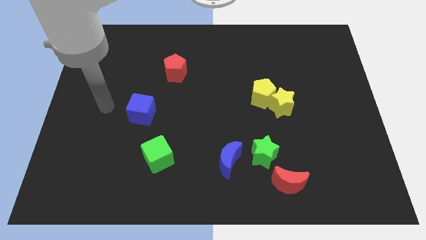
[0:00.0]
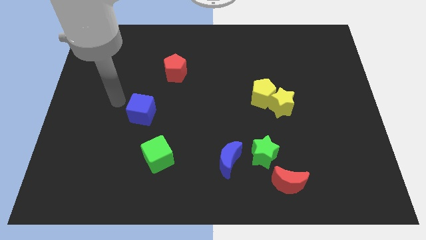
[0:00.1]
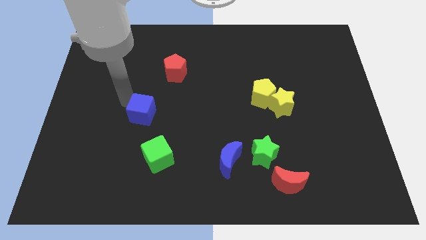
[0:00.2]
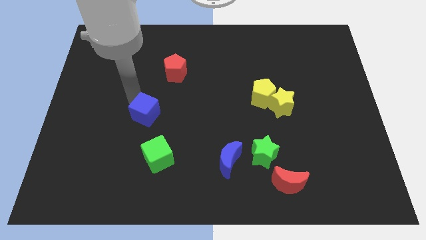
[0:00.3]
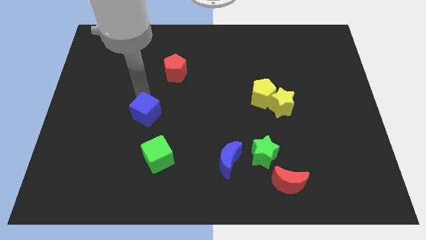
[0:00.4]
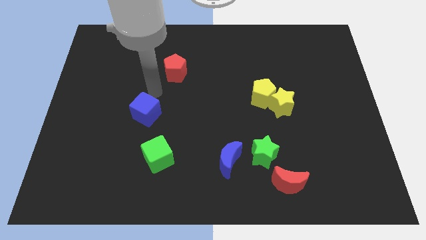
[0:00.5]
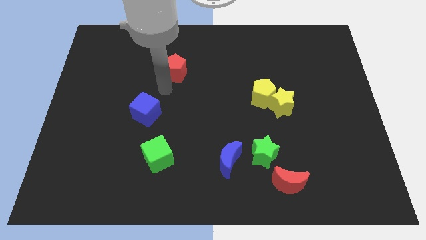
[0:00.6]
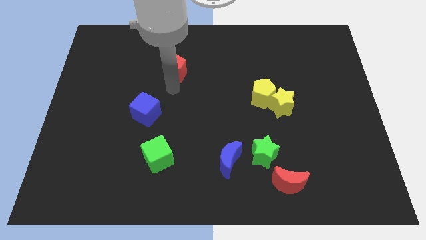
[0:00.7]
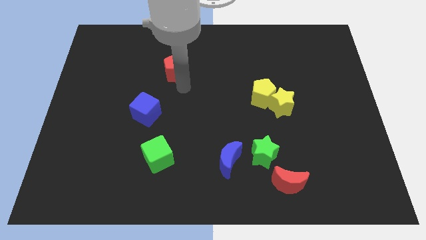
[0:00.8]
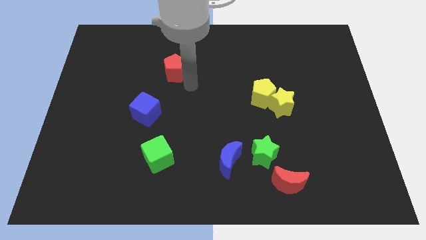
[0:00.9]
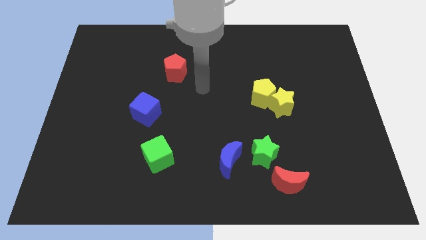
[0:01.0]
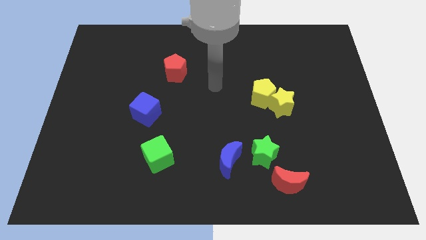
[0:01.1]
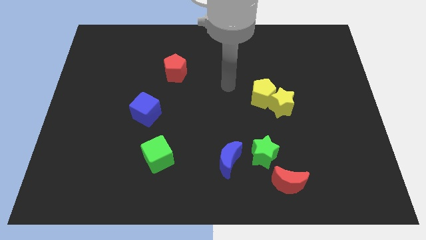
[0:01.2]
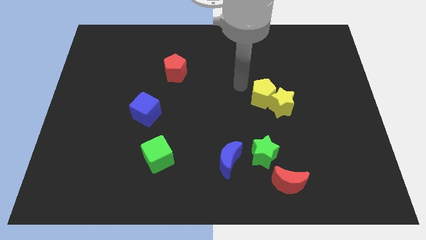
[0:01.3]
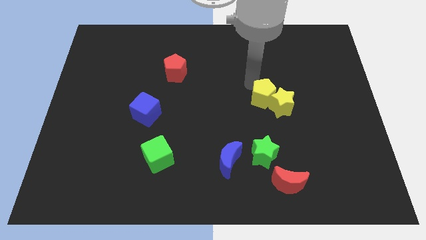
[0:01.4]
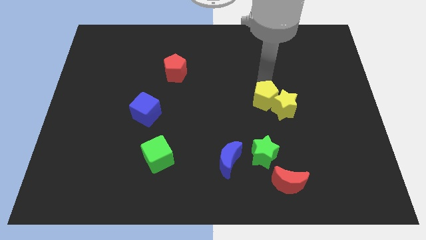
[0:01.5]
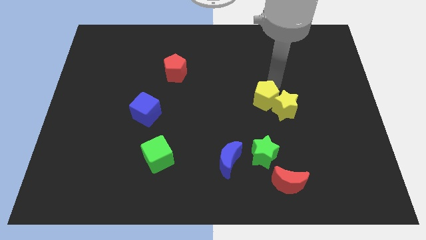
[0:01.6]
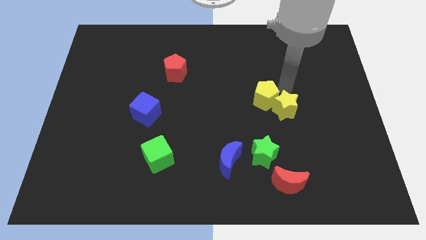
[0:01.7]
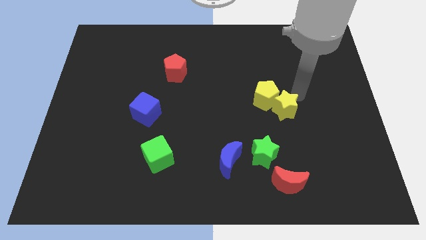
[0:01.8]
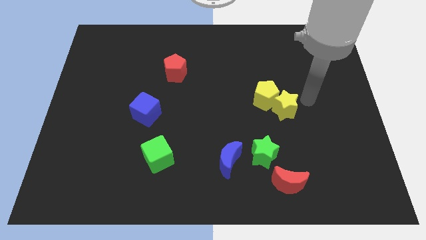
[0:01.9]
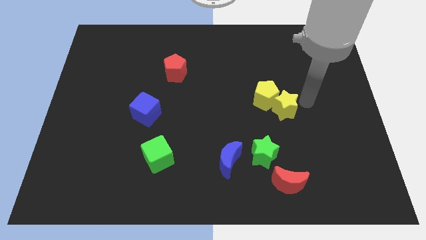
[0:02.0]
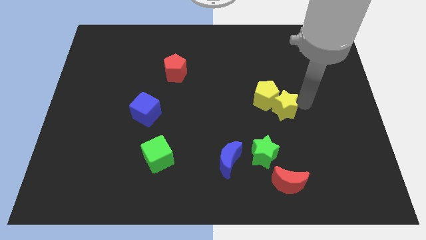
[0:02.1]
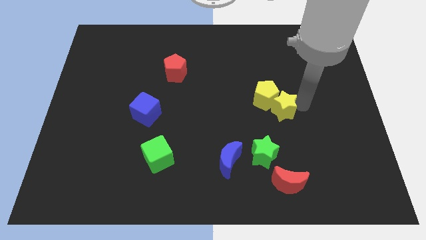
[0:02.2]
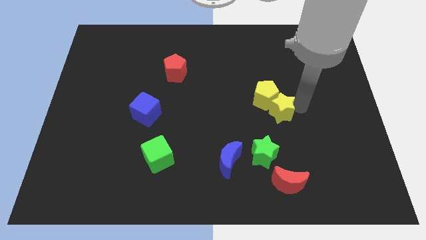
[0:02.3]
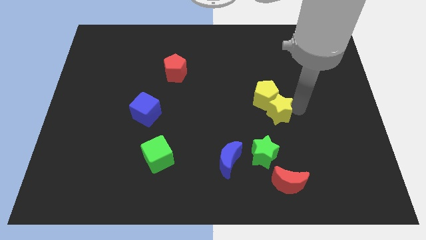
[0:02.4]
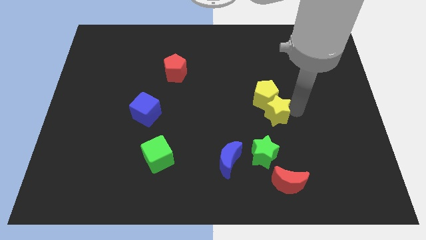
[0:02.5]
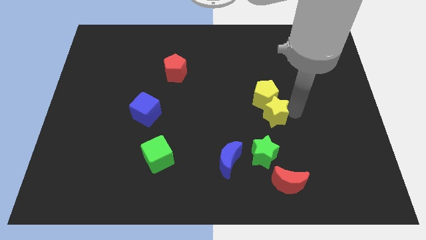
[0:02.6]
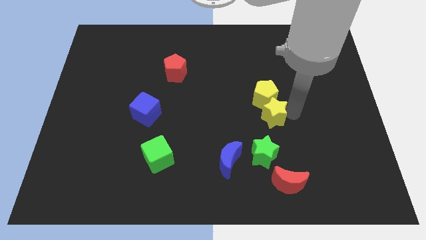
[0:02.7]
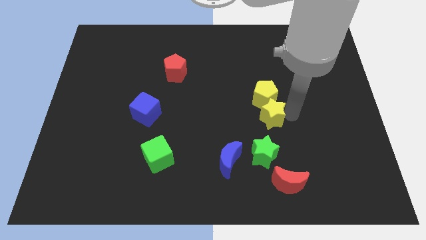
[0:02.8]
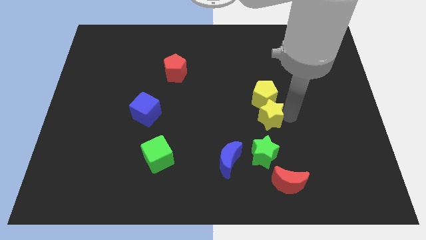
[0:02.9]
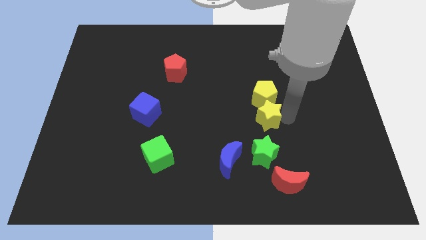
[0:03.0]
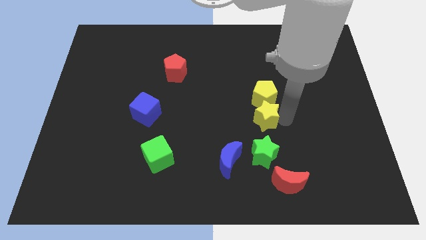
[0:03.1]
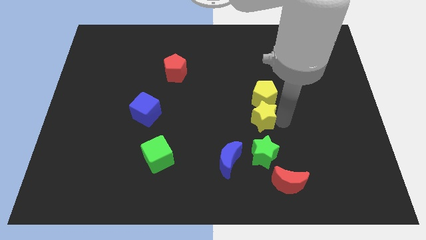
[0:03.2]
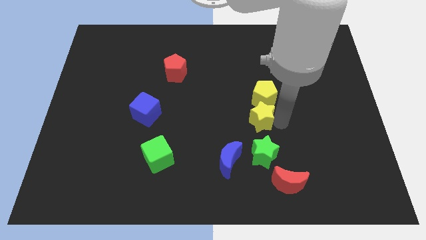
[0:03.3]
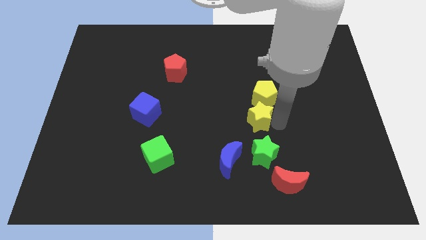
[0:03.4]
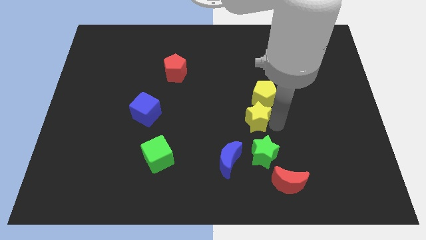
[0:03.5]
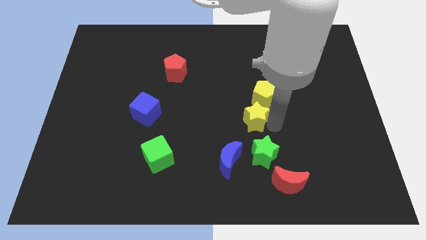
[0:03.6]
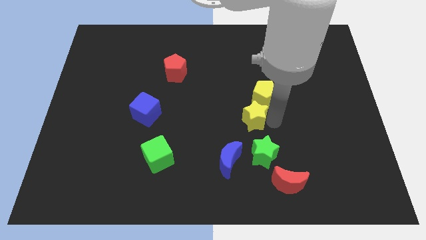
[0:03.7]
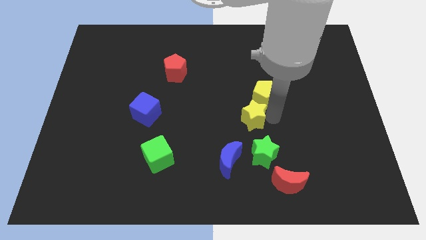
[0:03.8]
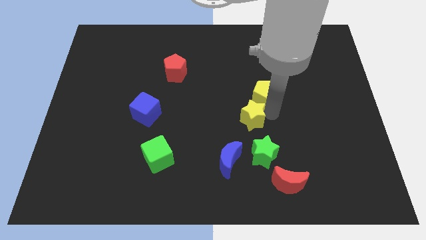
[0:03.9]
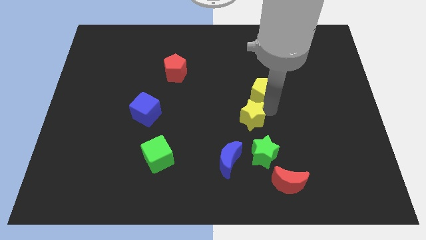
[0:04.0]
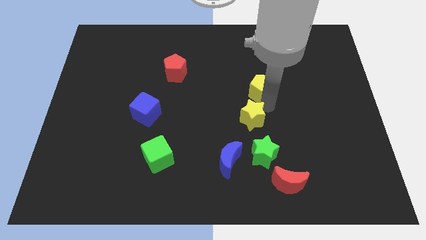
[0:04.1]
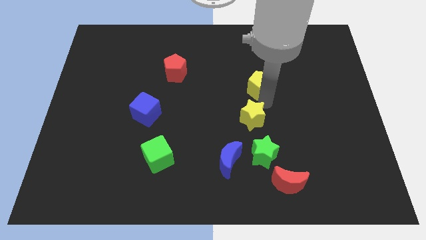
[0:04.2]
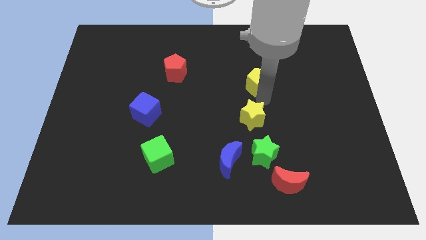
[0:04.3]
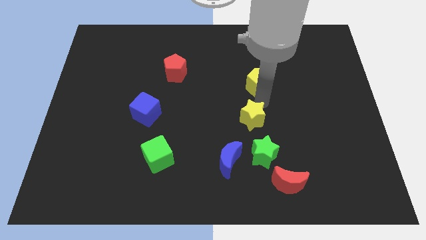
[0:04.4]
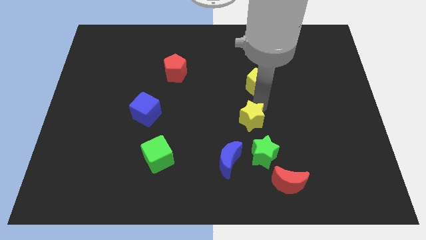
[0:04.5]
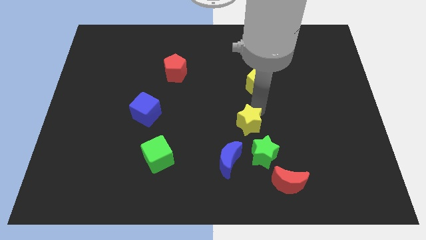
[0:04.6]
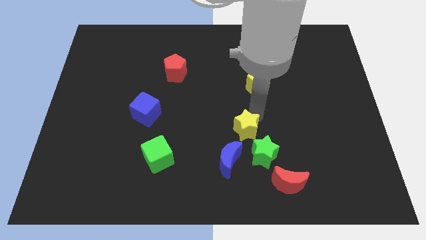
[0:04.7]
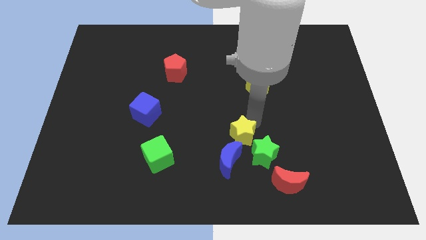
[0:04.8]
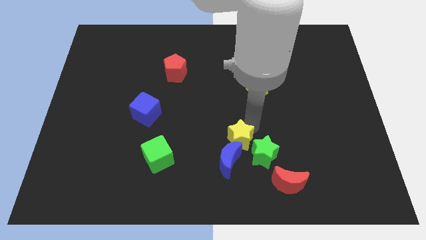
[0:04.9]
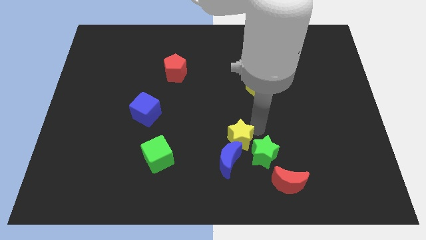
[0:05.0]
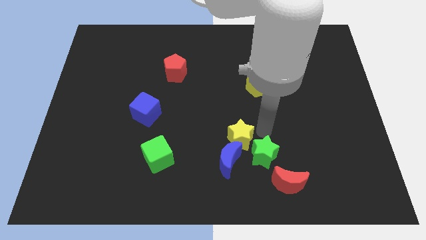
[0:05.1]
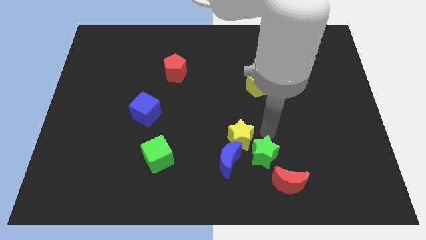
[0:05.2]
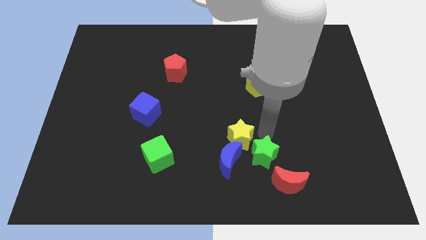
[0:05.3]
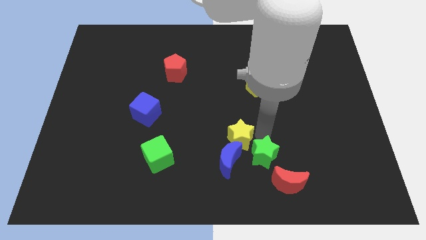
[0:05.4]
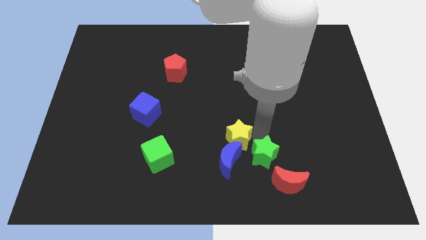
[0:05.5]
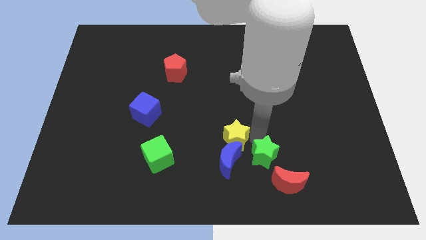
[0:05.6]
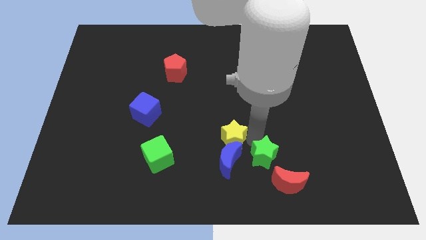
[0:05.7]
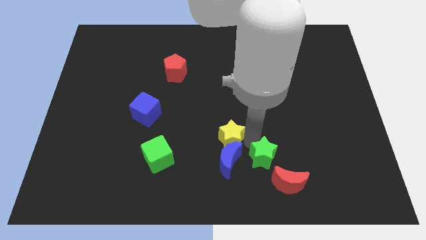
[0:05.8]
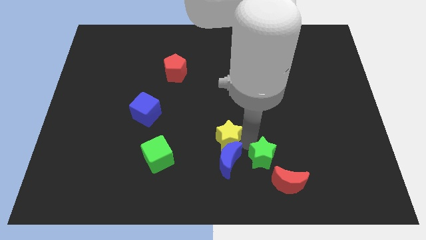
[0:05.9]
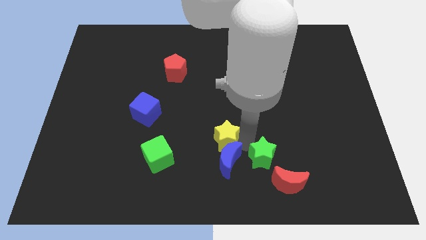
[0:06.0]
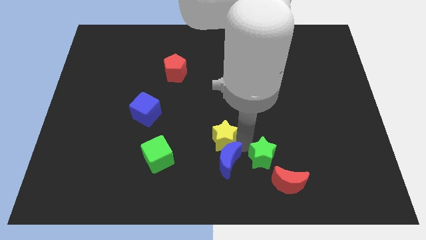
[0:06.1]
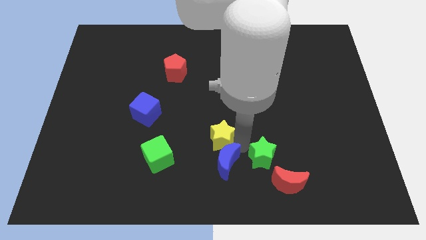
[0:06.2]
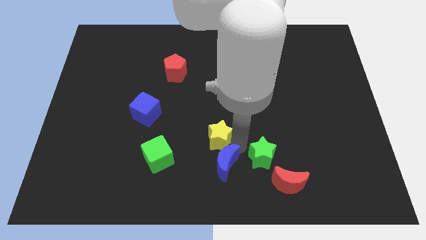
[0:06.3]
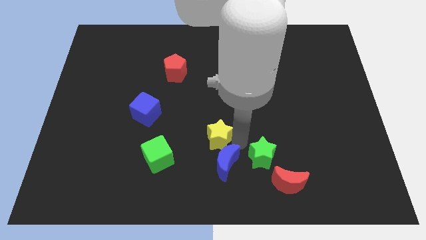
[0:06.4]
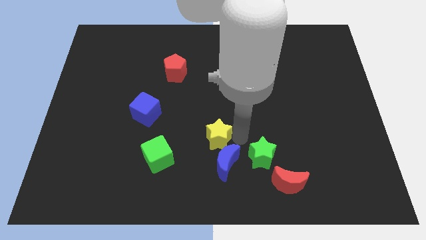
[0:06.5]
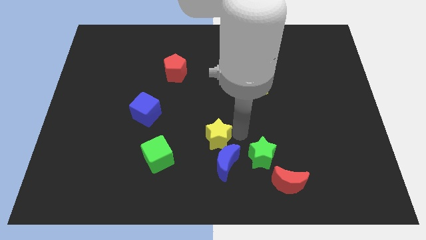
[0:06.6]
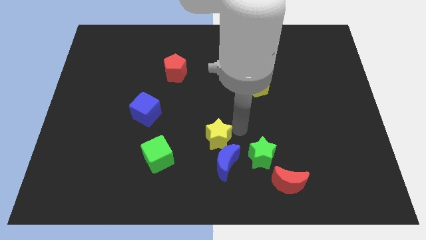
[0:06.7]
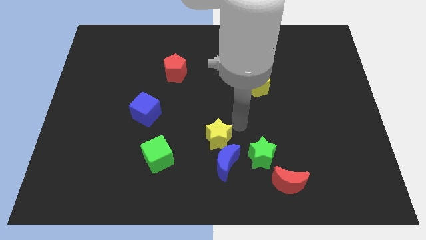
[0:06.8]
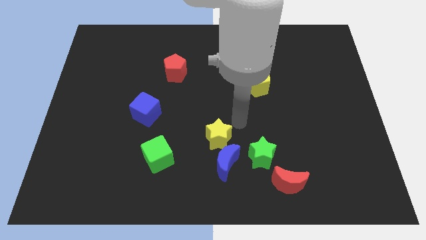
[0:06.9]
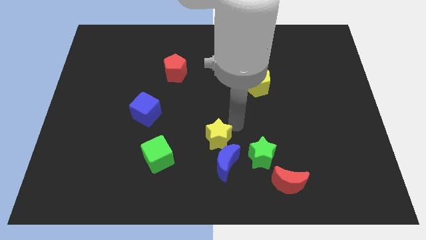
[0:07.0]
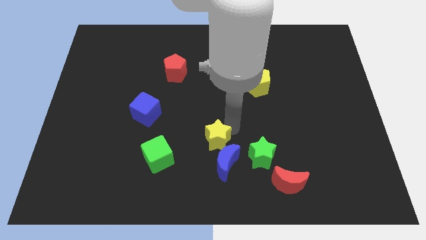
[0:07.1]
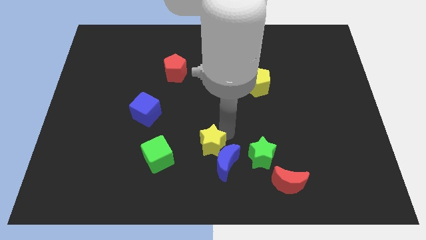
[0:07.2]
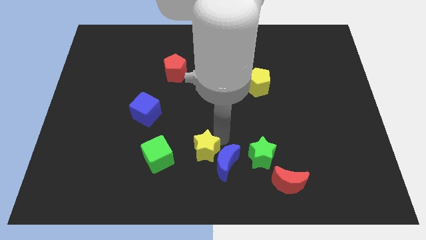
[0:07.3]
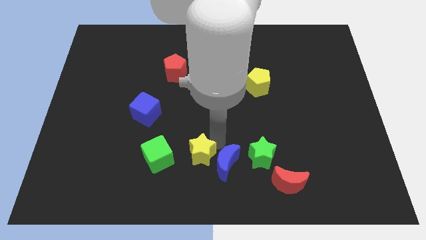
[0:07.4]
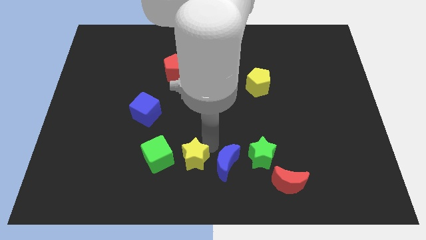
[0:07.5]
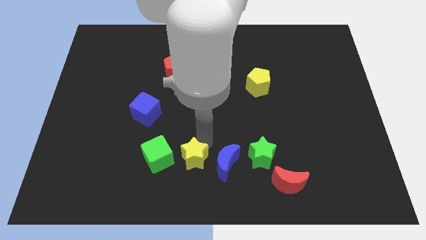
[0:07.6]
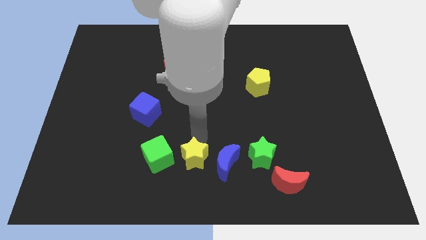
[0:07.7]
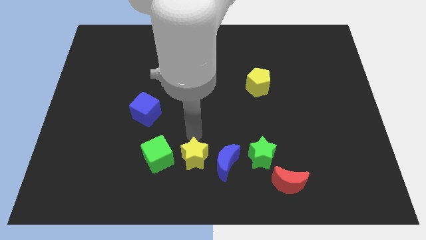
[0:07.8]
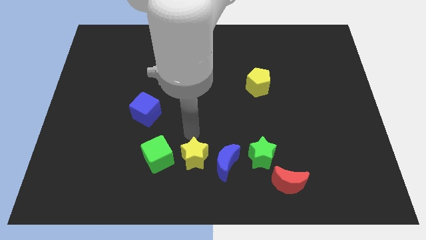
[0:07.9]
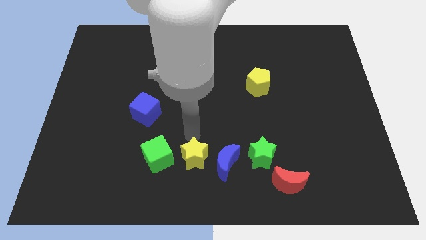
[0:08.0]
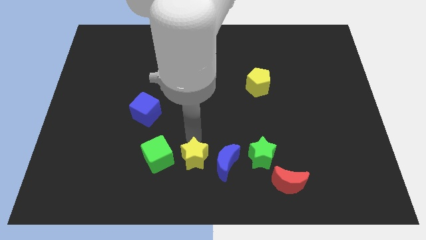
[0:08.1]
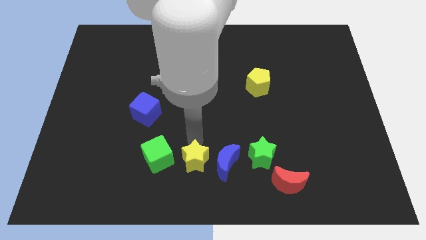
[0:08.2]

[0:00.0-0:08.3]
push the yellow star diagonally down and to the left of the blue moon
